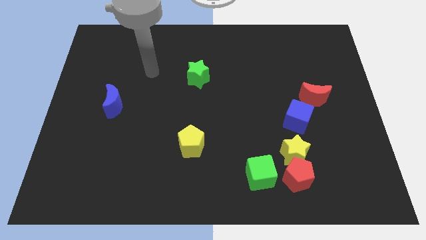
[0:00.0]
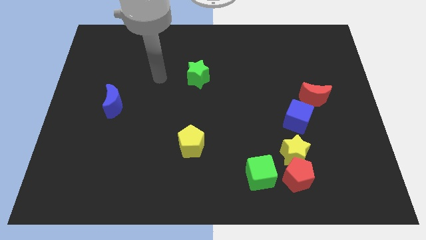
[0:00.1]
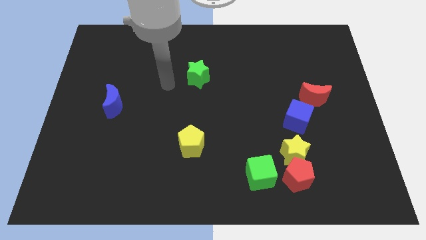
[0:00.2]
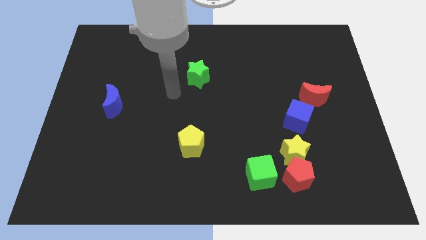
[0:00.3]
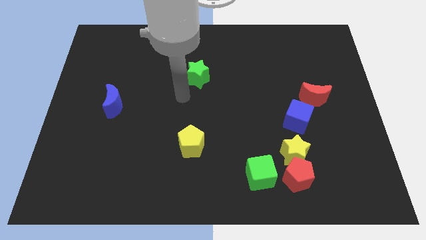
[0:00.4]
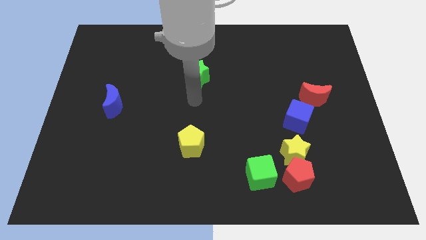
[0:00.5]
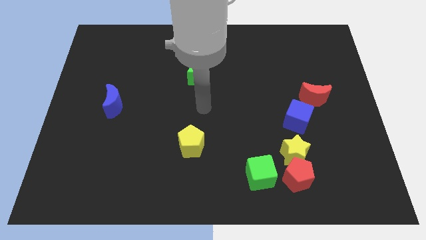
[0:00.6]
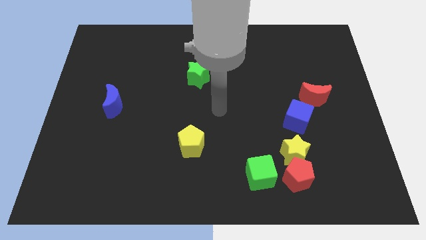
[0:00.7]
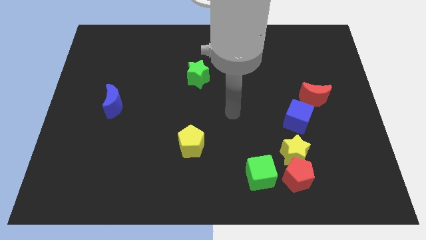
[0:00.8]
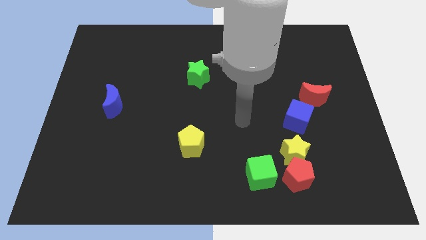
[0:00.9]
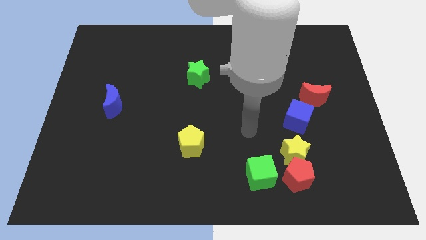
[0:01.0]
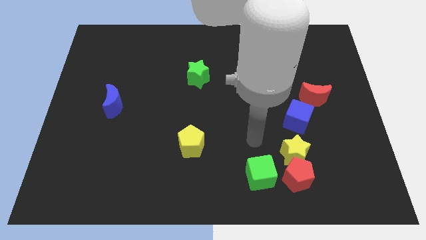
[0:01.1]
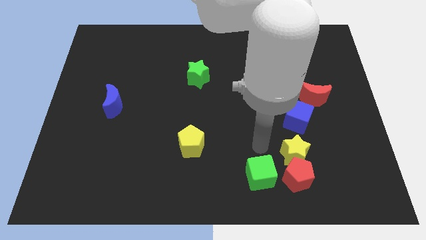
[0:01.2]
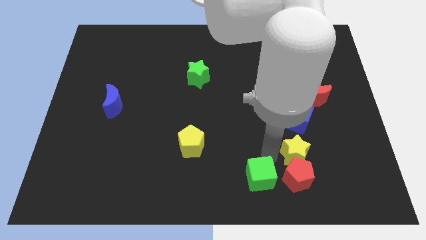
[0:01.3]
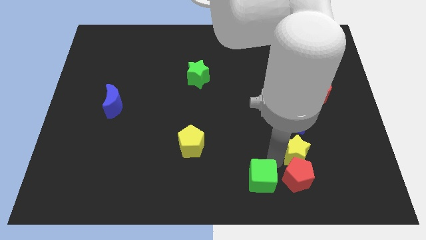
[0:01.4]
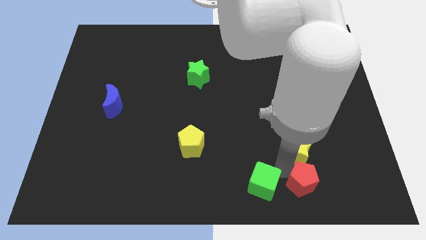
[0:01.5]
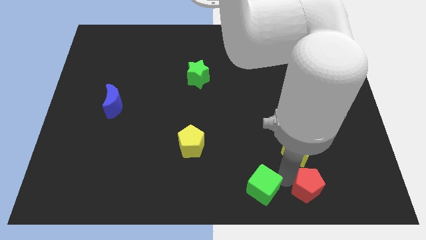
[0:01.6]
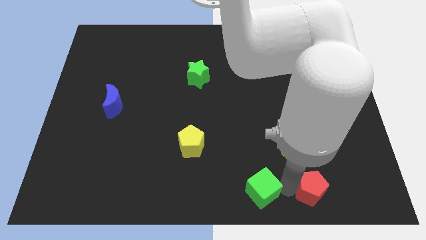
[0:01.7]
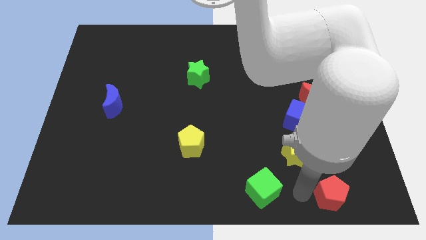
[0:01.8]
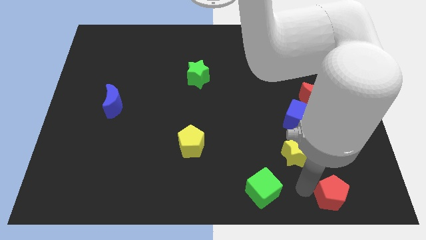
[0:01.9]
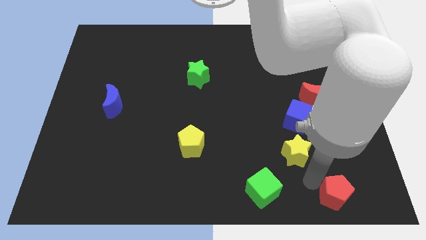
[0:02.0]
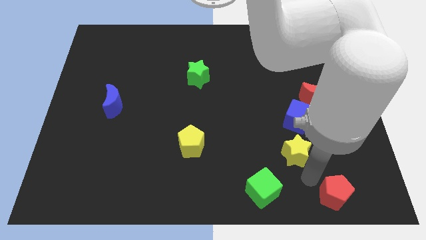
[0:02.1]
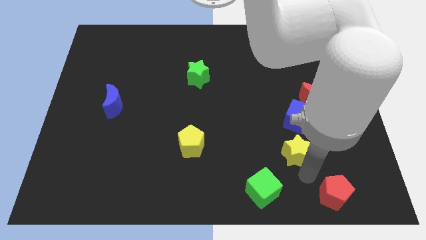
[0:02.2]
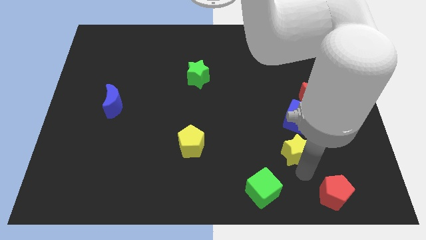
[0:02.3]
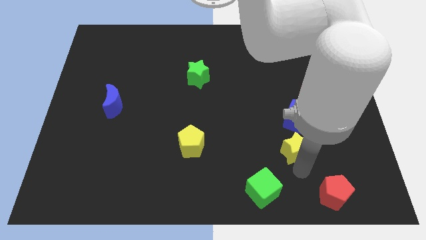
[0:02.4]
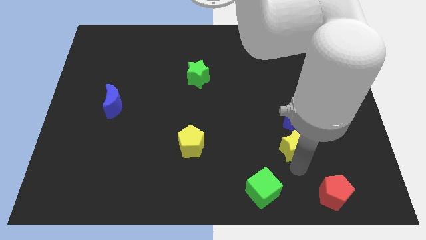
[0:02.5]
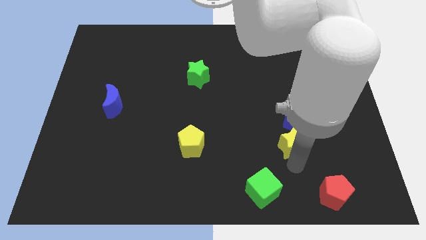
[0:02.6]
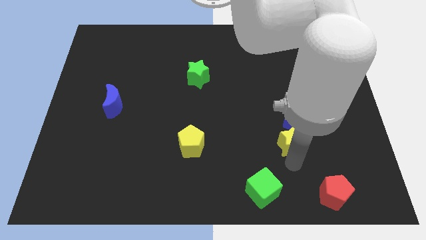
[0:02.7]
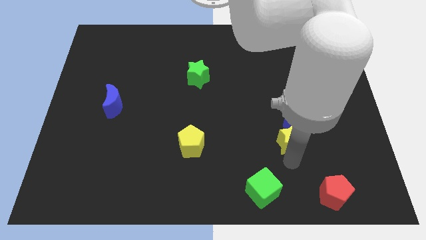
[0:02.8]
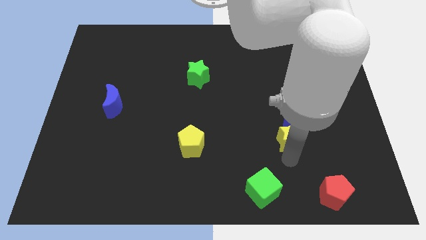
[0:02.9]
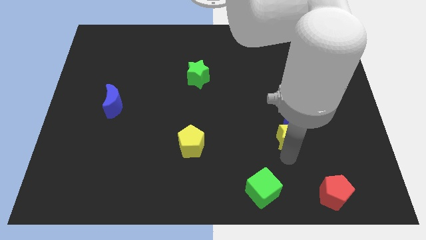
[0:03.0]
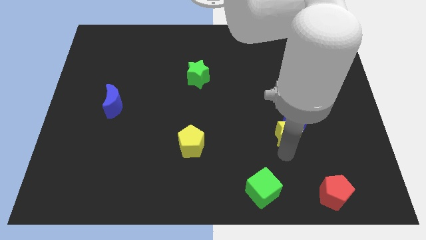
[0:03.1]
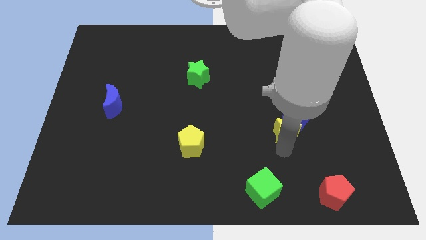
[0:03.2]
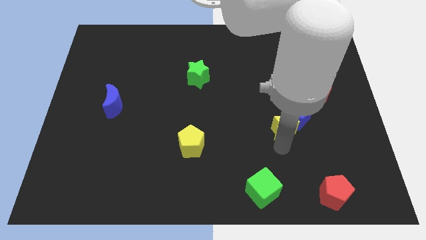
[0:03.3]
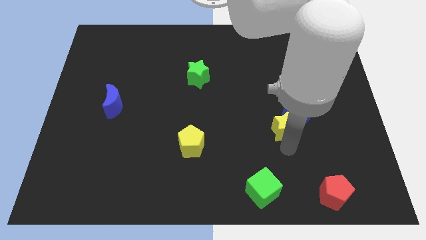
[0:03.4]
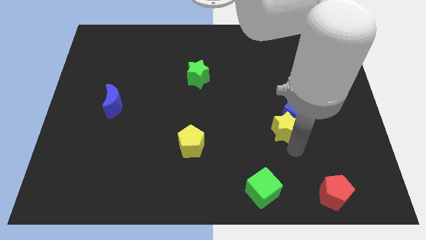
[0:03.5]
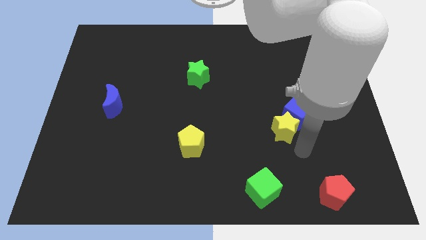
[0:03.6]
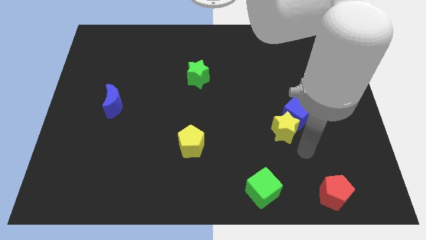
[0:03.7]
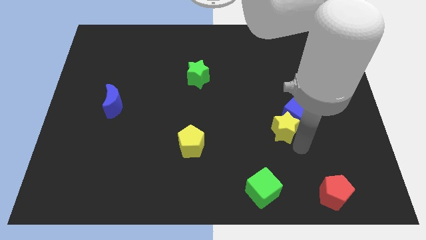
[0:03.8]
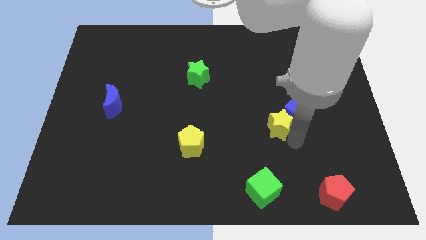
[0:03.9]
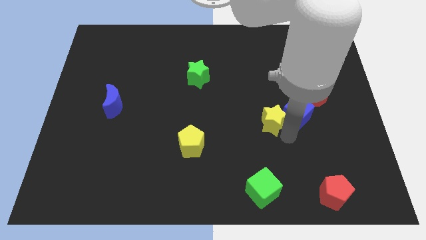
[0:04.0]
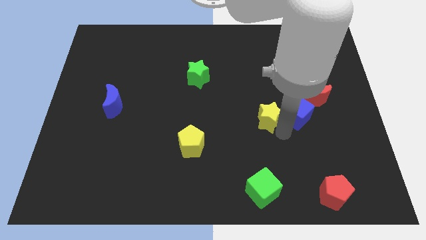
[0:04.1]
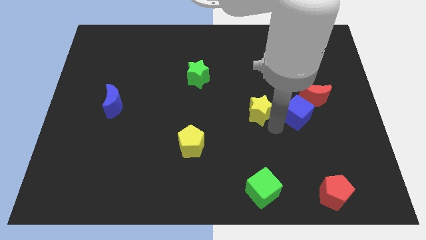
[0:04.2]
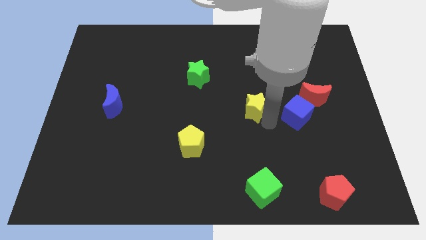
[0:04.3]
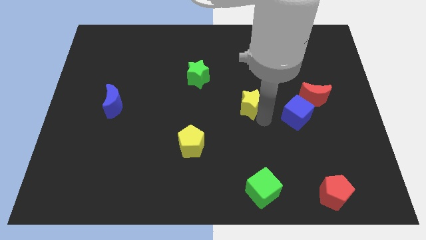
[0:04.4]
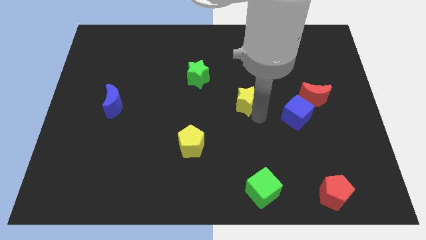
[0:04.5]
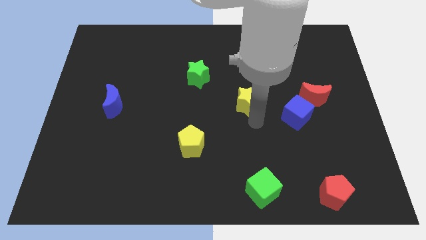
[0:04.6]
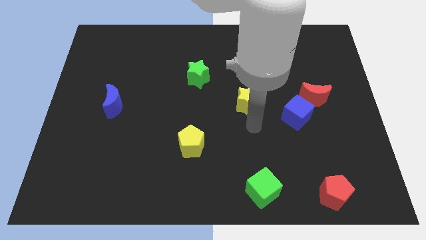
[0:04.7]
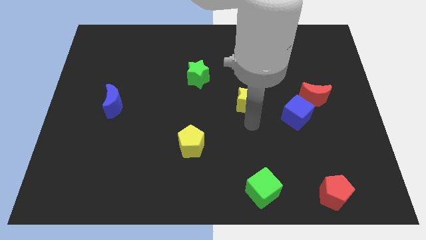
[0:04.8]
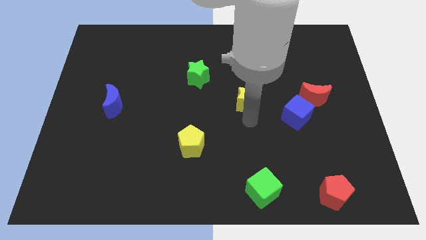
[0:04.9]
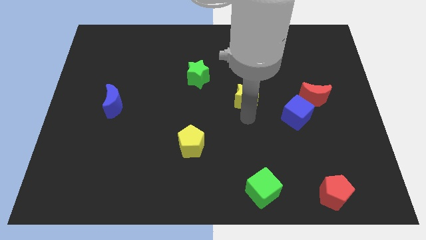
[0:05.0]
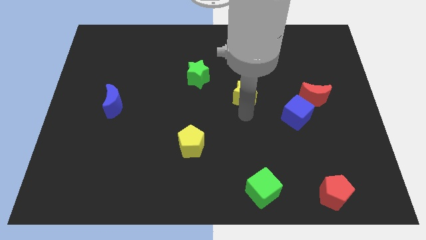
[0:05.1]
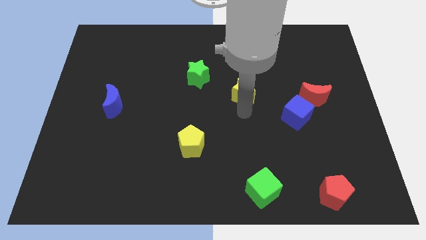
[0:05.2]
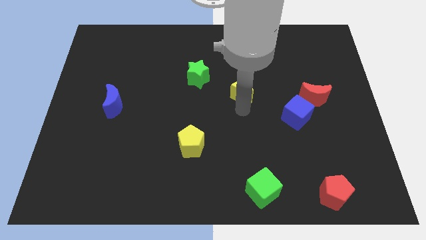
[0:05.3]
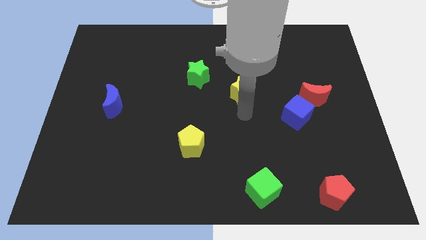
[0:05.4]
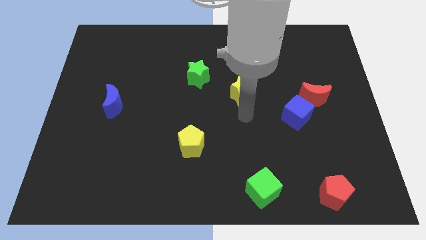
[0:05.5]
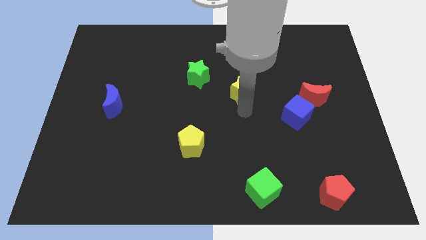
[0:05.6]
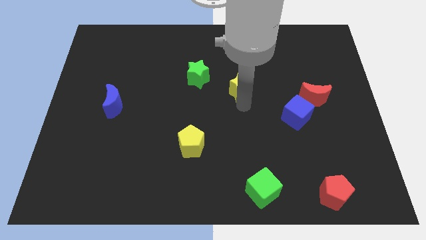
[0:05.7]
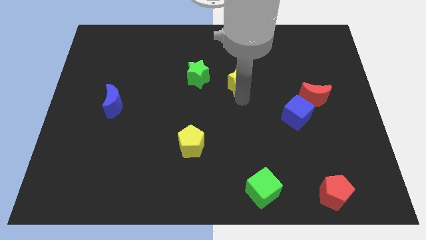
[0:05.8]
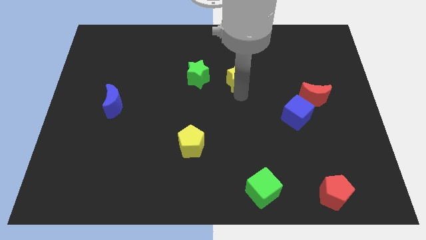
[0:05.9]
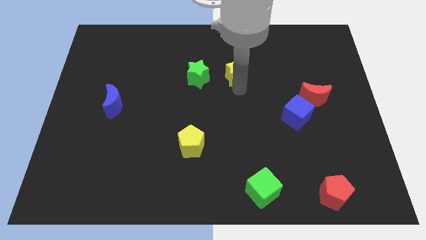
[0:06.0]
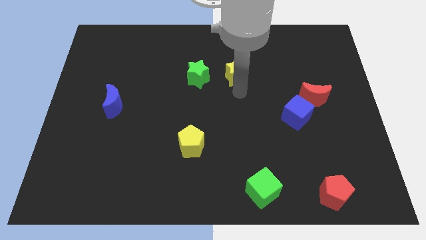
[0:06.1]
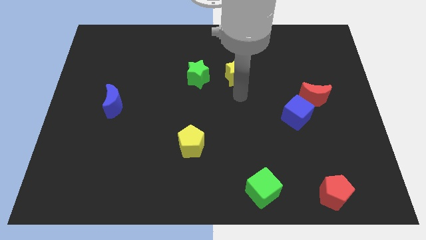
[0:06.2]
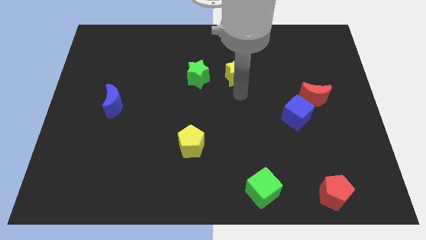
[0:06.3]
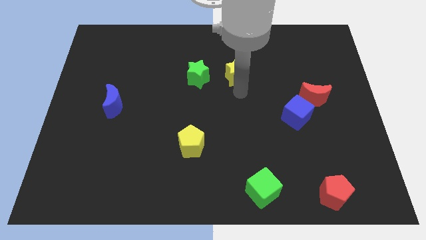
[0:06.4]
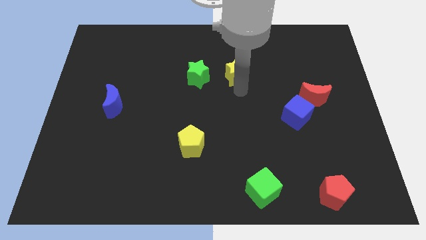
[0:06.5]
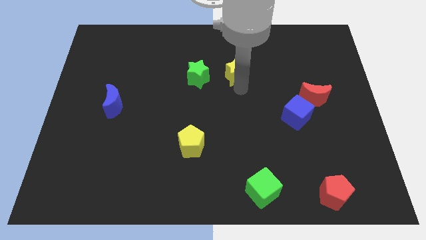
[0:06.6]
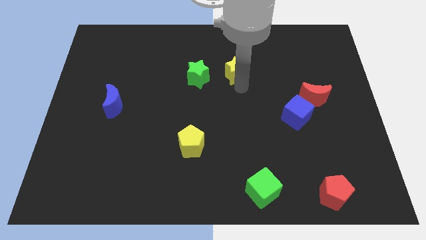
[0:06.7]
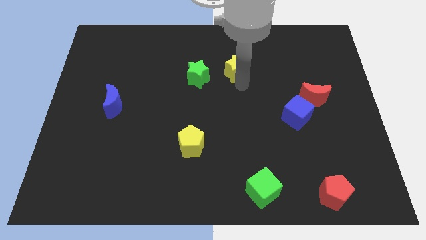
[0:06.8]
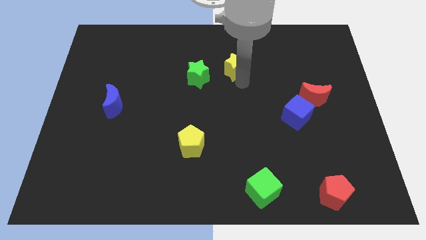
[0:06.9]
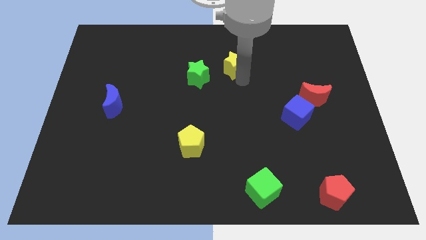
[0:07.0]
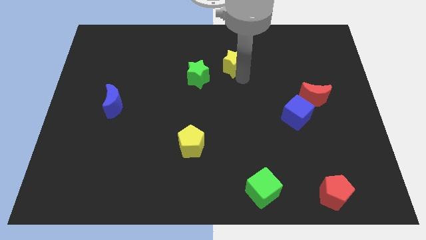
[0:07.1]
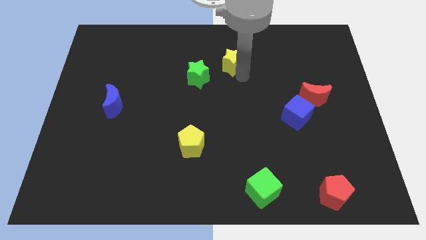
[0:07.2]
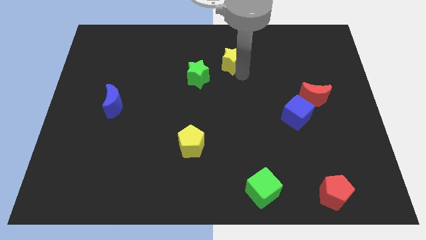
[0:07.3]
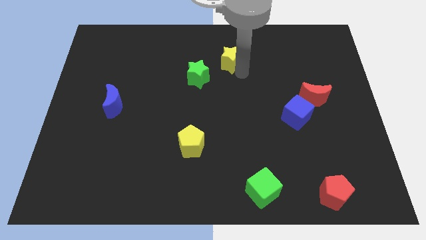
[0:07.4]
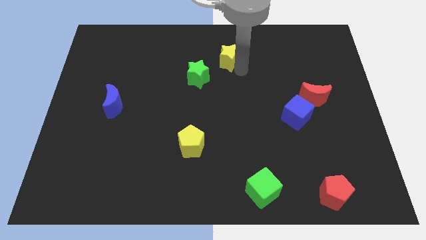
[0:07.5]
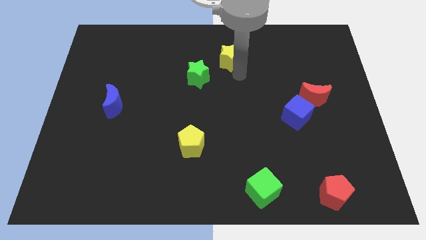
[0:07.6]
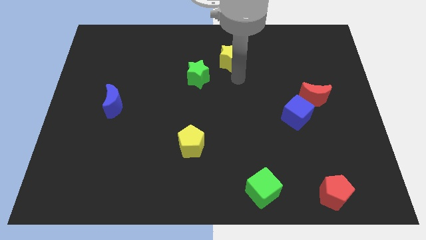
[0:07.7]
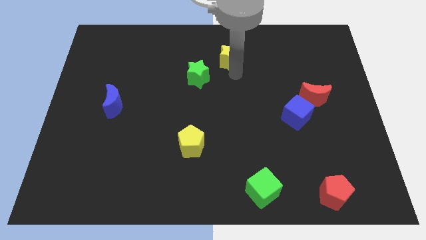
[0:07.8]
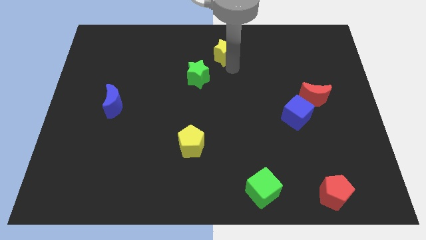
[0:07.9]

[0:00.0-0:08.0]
push the yellow star to the top side
